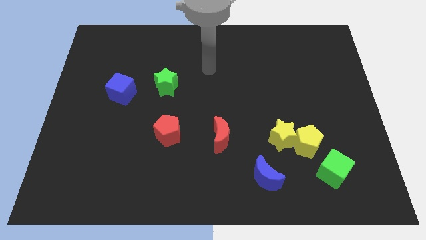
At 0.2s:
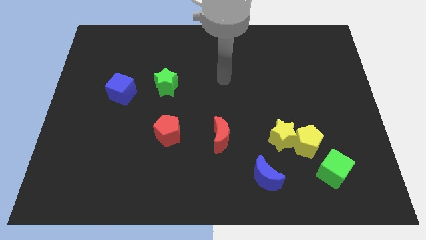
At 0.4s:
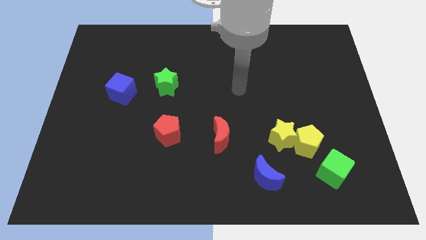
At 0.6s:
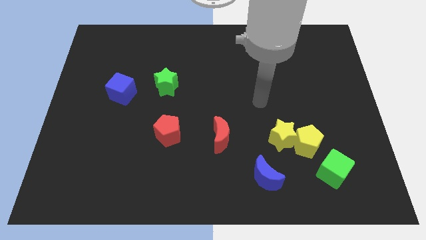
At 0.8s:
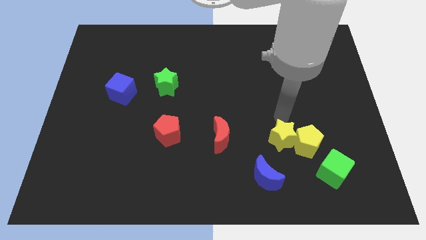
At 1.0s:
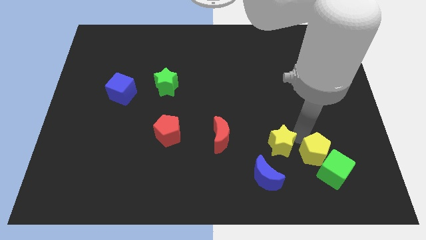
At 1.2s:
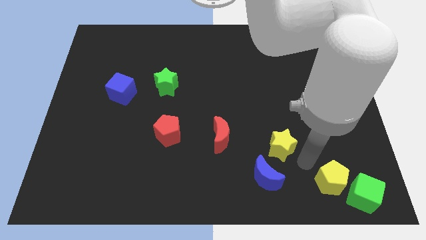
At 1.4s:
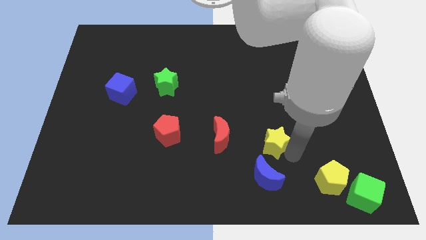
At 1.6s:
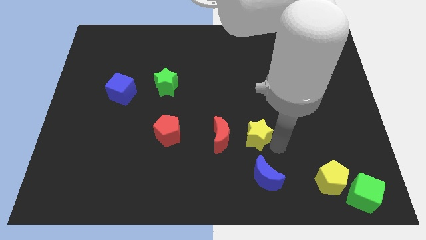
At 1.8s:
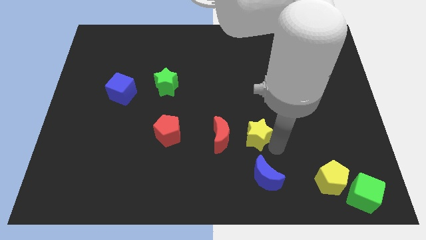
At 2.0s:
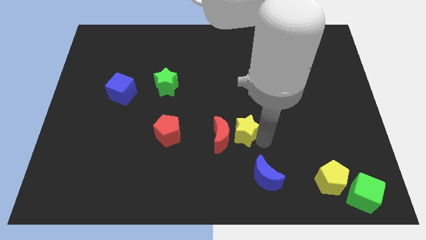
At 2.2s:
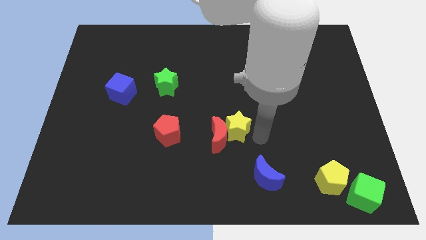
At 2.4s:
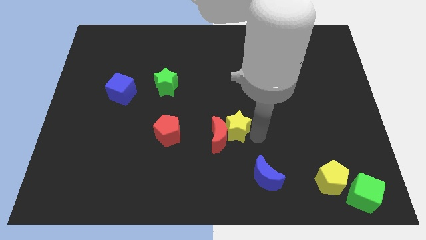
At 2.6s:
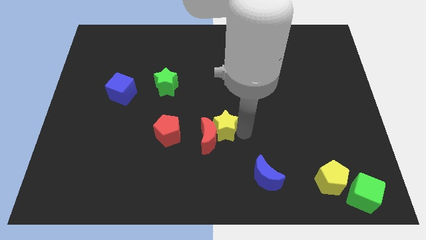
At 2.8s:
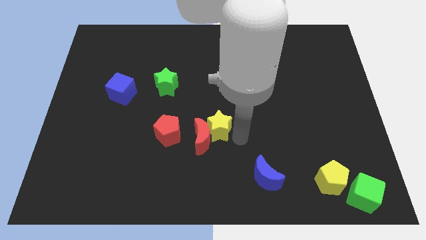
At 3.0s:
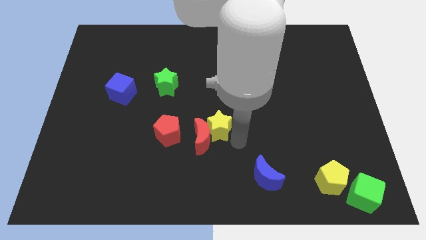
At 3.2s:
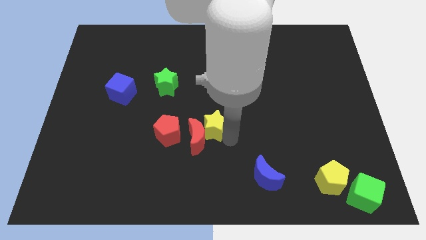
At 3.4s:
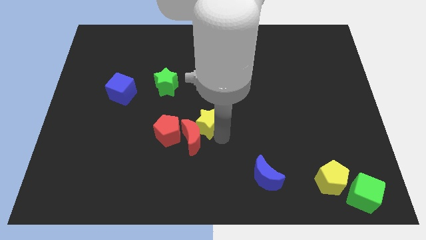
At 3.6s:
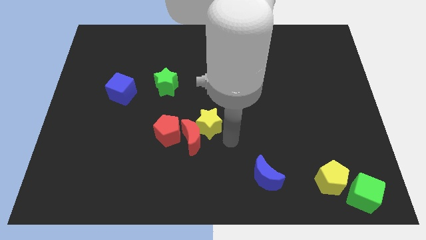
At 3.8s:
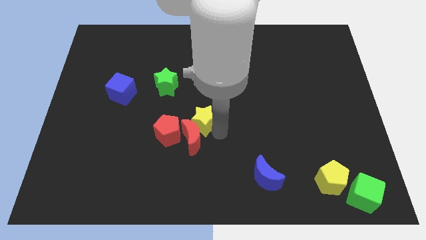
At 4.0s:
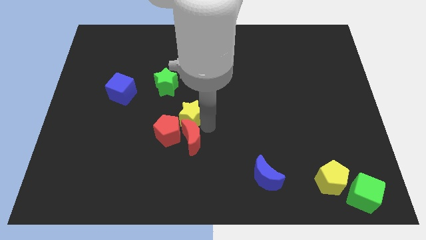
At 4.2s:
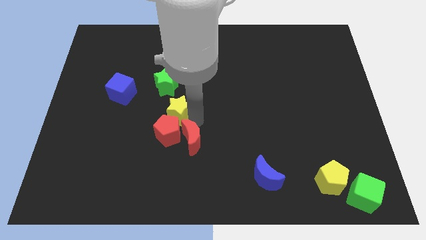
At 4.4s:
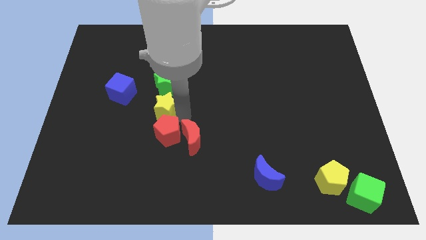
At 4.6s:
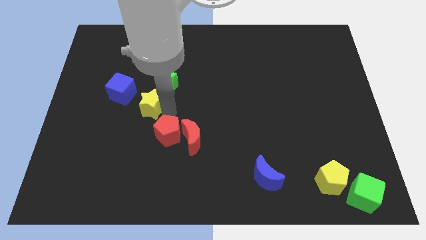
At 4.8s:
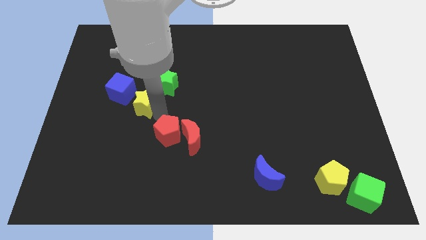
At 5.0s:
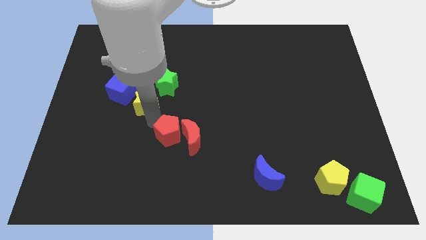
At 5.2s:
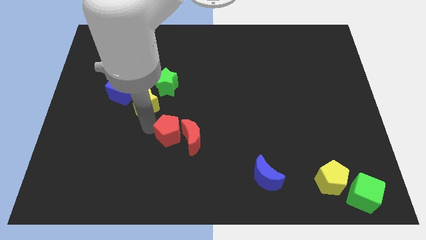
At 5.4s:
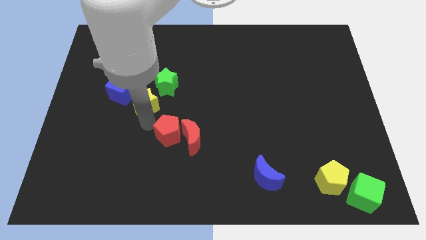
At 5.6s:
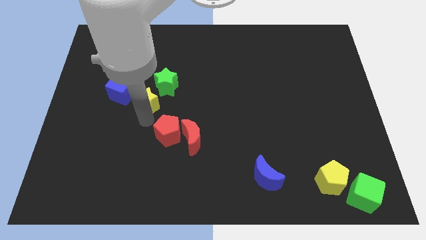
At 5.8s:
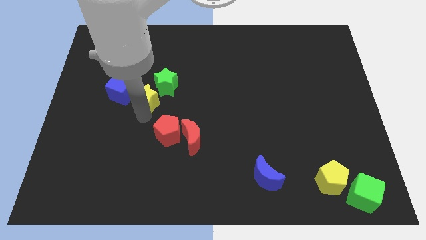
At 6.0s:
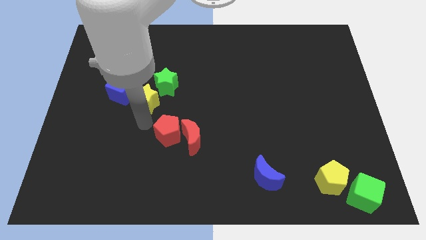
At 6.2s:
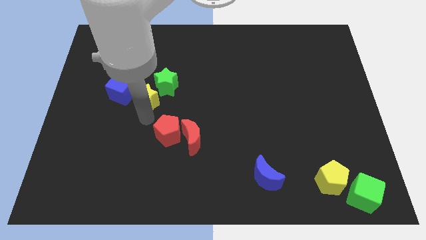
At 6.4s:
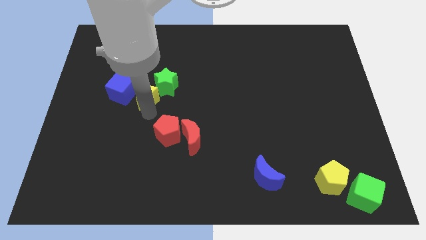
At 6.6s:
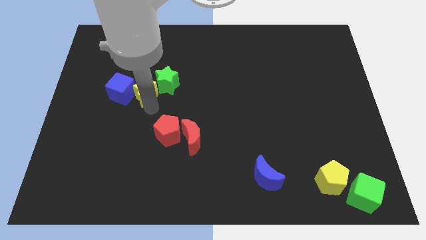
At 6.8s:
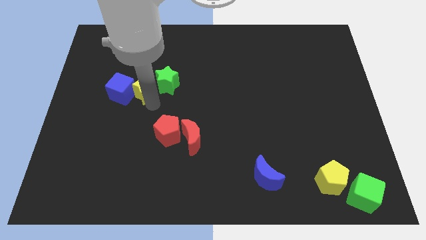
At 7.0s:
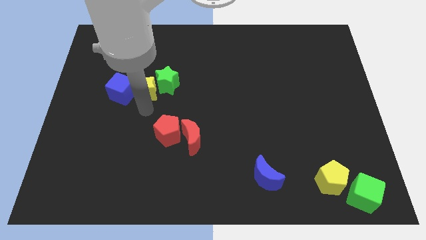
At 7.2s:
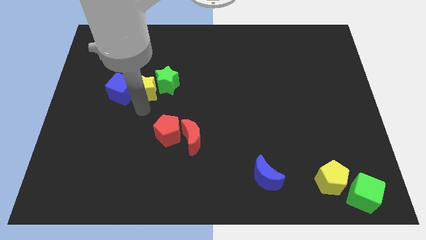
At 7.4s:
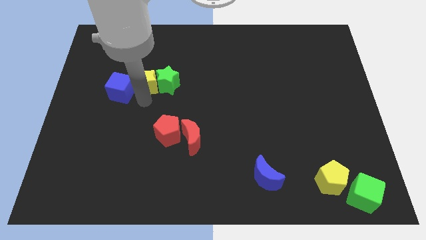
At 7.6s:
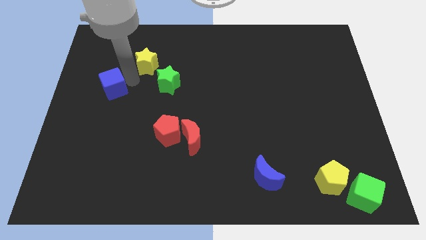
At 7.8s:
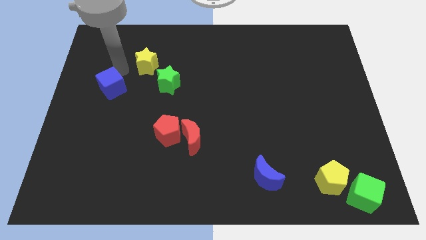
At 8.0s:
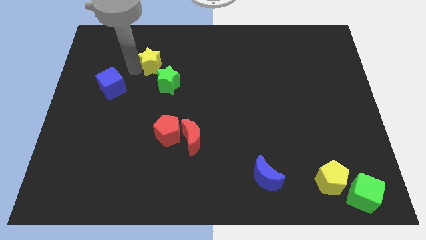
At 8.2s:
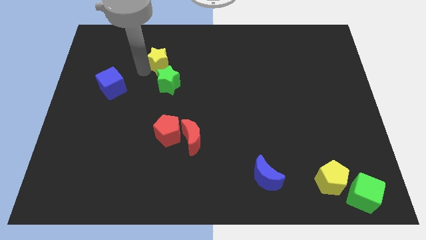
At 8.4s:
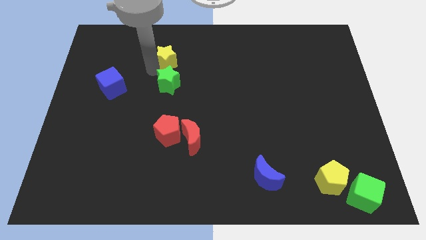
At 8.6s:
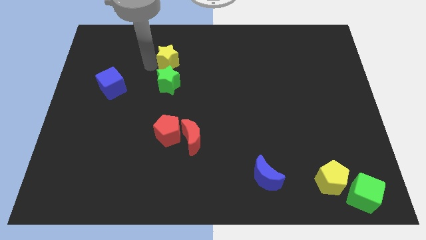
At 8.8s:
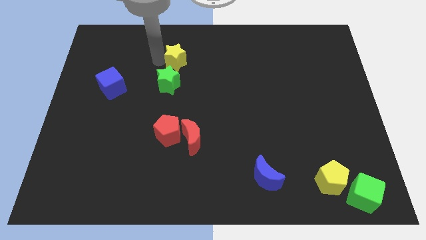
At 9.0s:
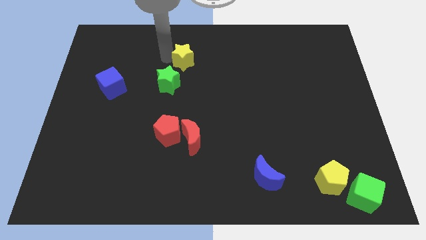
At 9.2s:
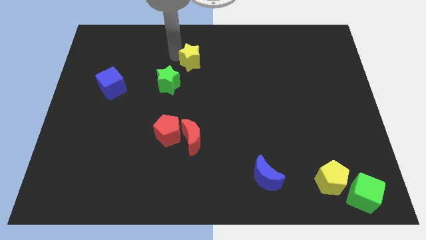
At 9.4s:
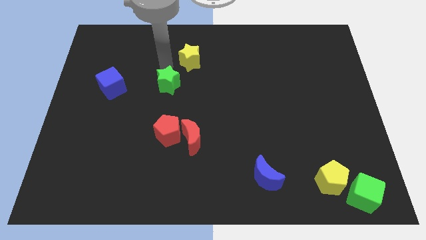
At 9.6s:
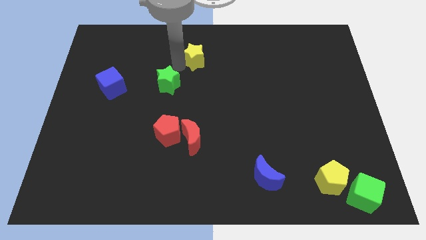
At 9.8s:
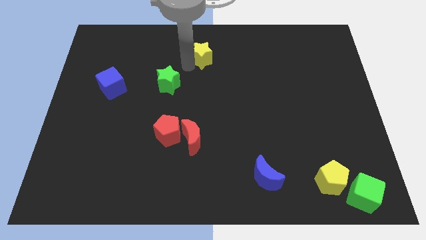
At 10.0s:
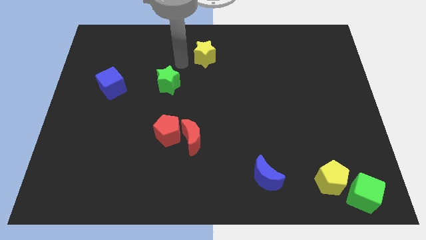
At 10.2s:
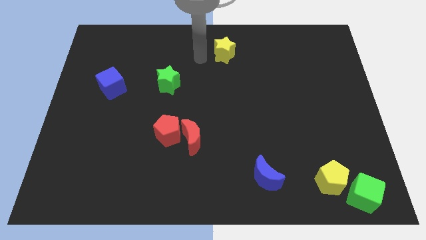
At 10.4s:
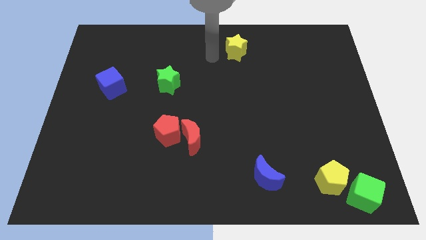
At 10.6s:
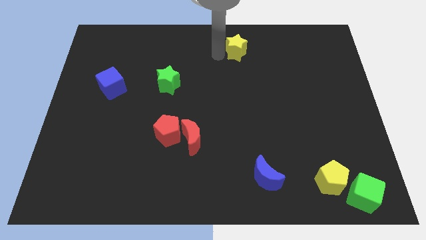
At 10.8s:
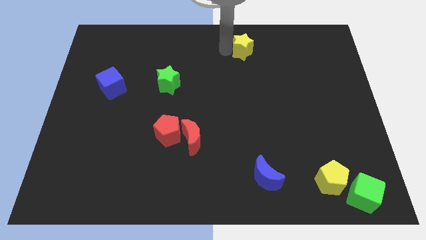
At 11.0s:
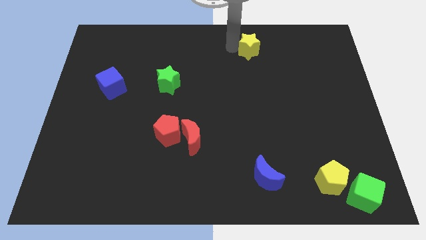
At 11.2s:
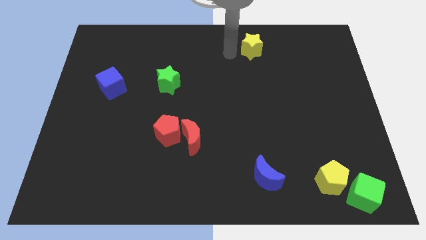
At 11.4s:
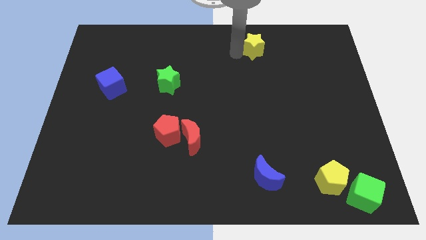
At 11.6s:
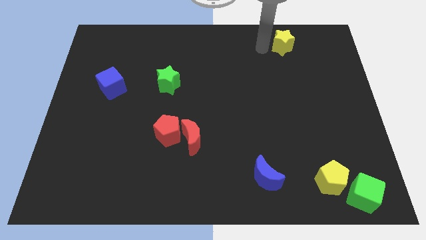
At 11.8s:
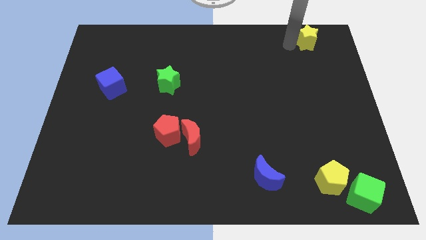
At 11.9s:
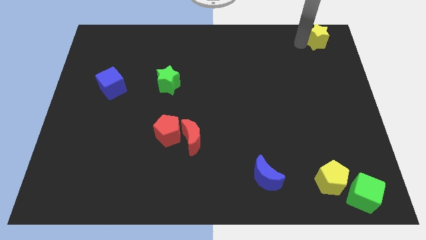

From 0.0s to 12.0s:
move the yellow star to the top right corner
